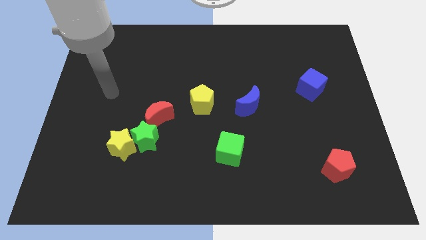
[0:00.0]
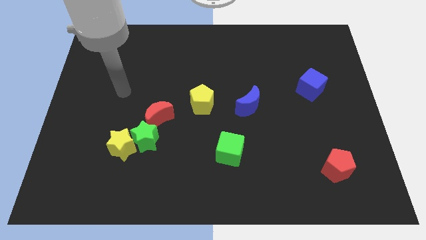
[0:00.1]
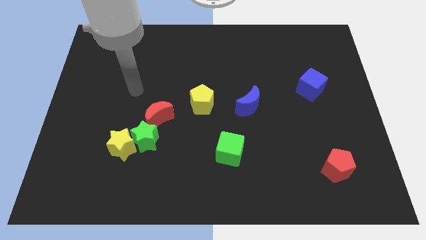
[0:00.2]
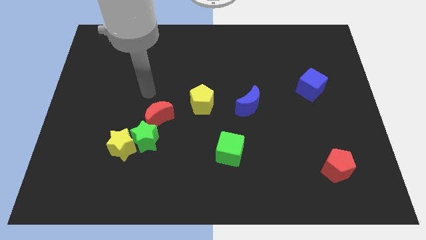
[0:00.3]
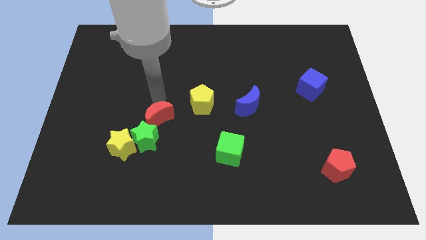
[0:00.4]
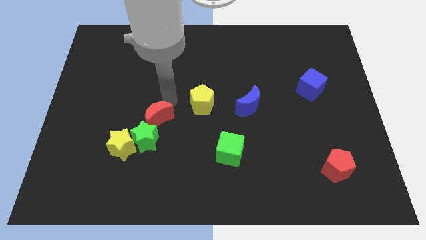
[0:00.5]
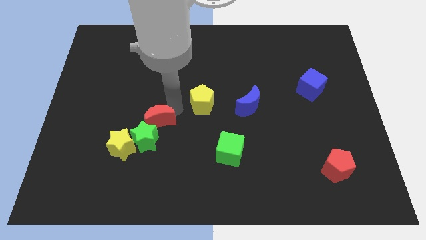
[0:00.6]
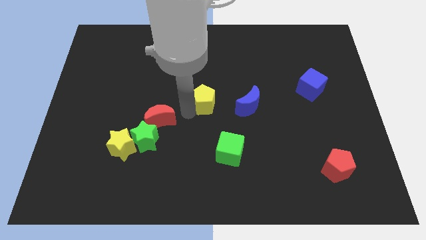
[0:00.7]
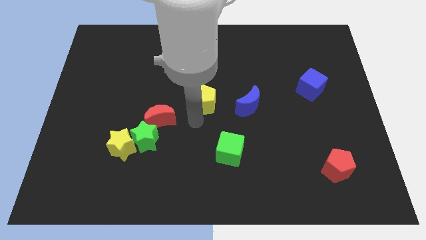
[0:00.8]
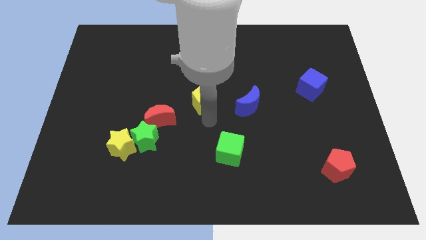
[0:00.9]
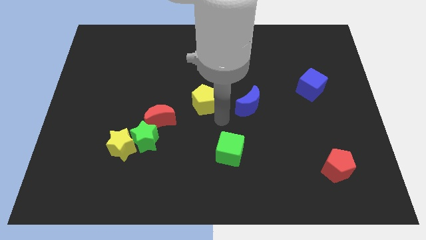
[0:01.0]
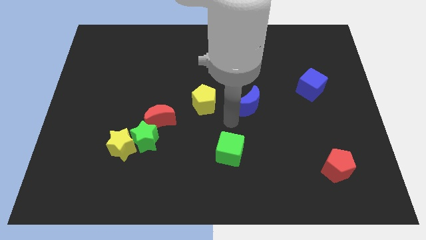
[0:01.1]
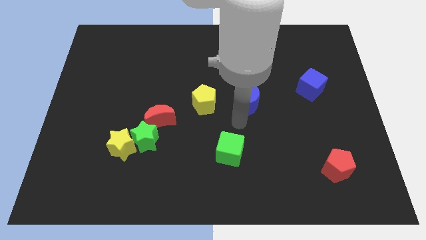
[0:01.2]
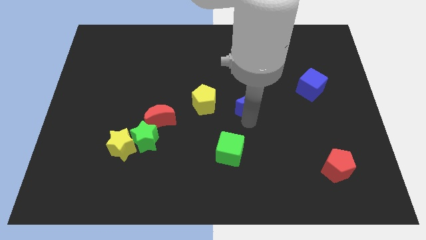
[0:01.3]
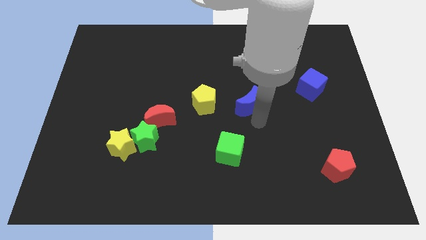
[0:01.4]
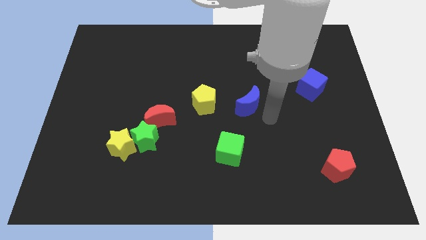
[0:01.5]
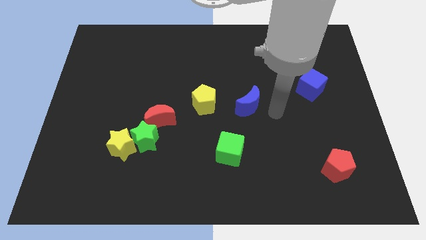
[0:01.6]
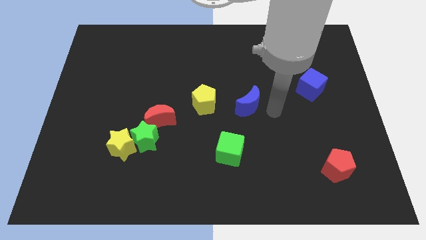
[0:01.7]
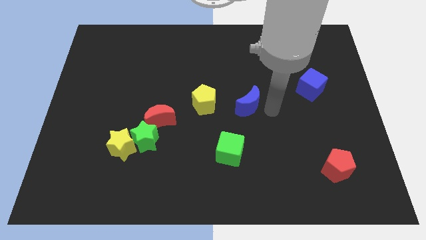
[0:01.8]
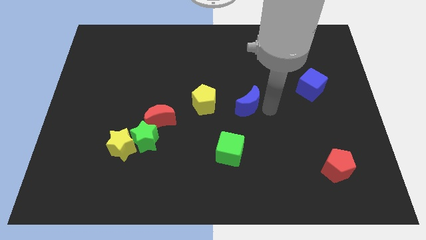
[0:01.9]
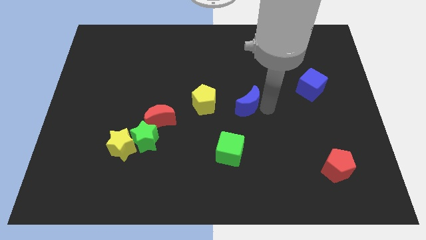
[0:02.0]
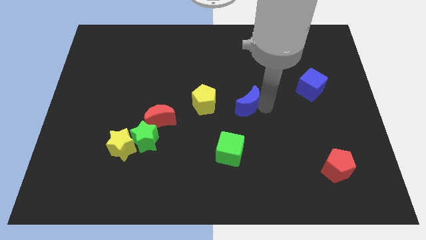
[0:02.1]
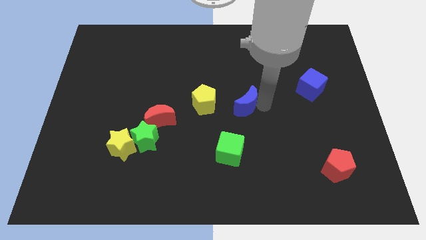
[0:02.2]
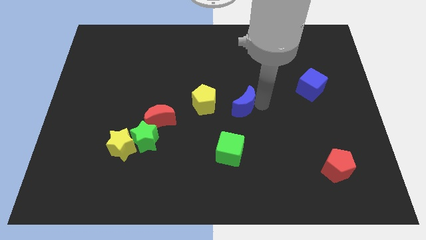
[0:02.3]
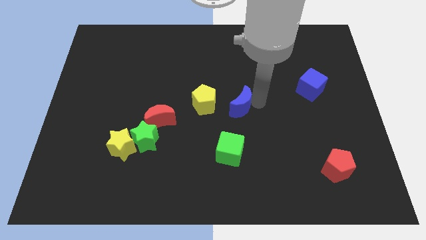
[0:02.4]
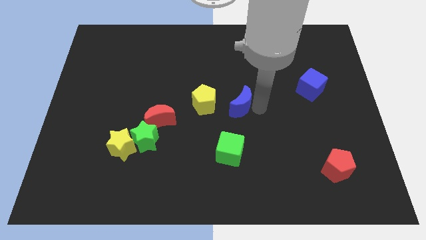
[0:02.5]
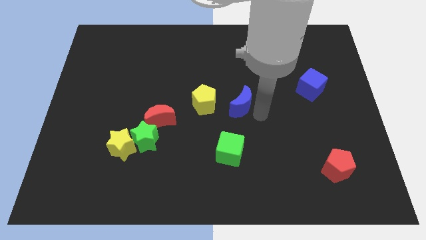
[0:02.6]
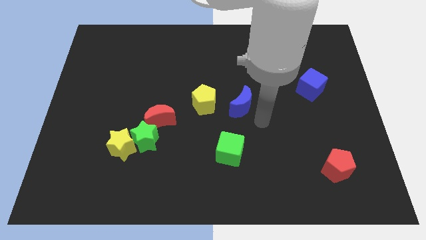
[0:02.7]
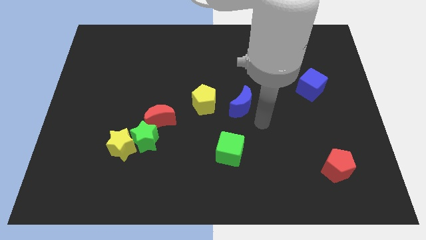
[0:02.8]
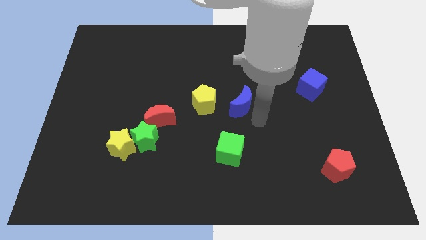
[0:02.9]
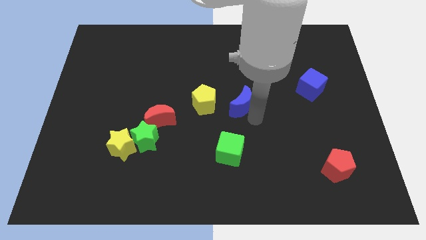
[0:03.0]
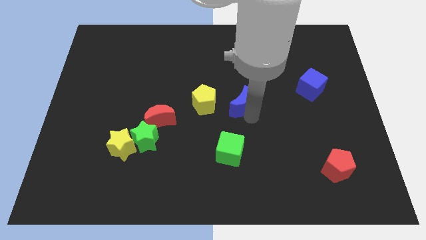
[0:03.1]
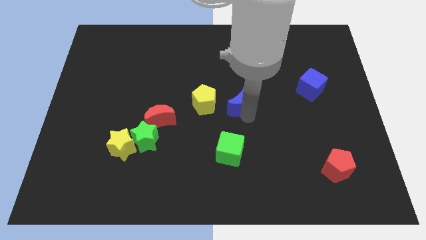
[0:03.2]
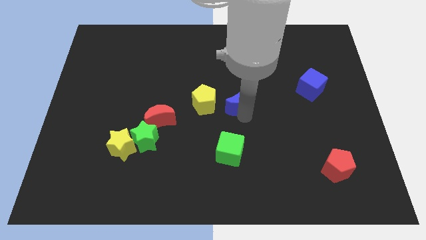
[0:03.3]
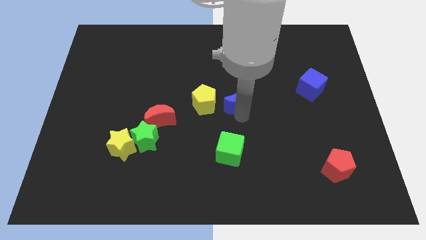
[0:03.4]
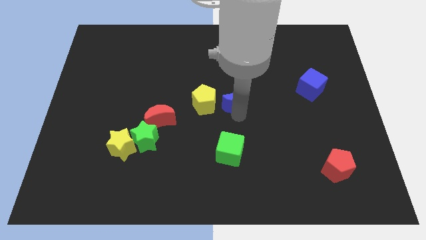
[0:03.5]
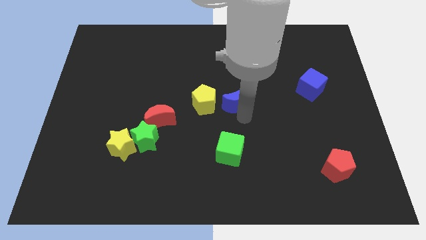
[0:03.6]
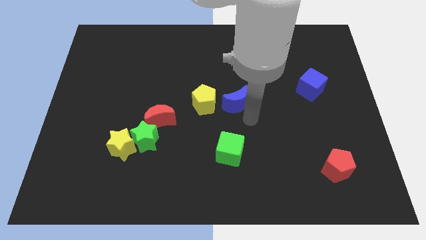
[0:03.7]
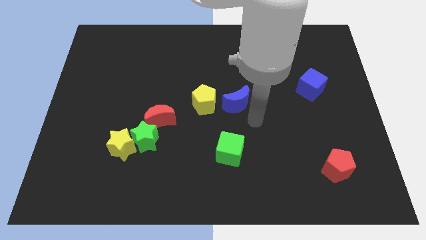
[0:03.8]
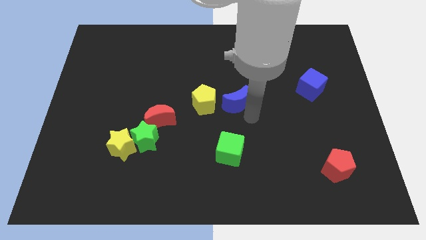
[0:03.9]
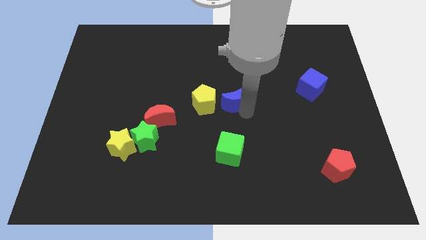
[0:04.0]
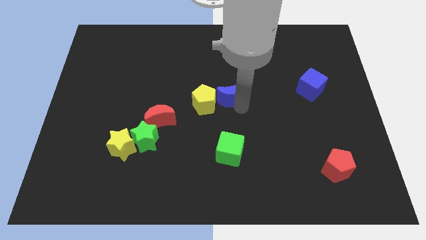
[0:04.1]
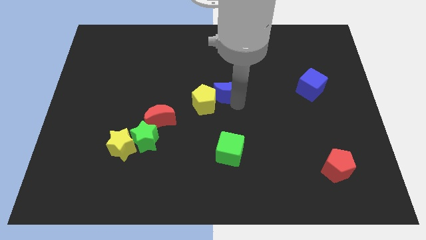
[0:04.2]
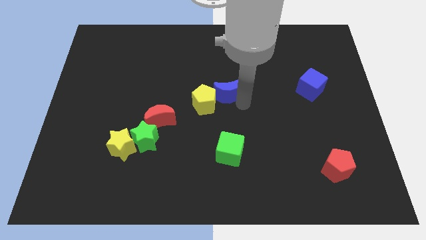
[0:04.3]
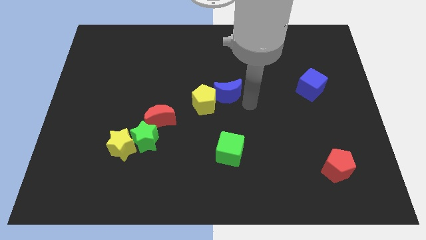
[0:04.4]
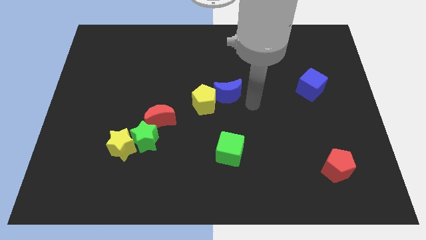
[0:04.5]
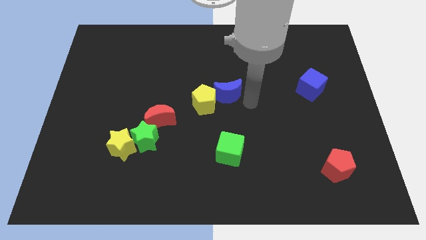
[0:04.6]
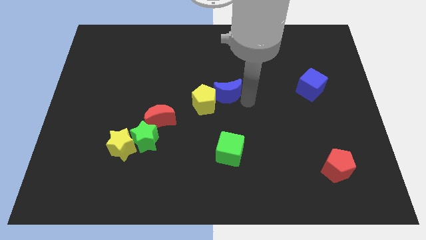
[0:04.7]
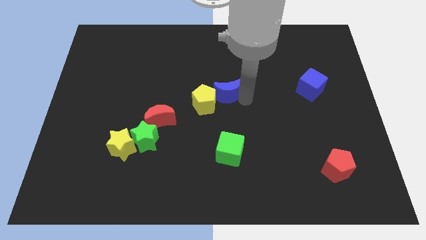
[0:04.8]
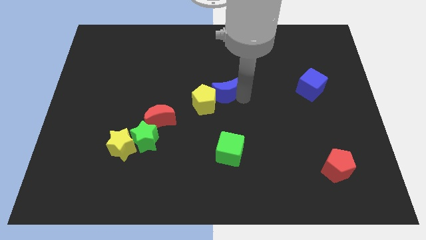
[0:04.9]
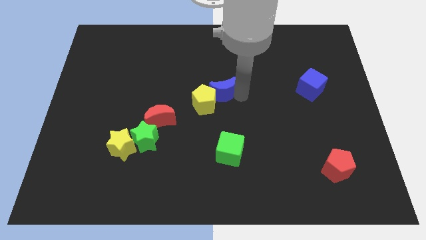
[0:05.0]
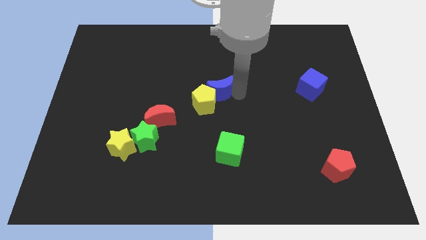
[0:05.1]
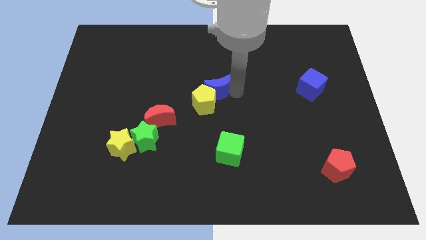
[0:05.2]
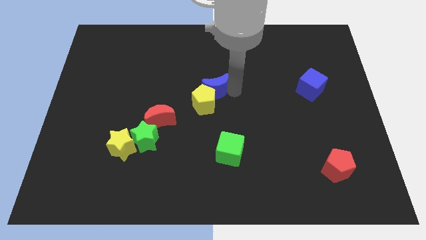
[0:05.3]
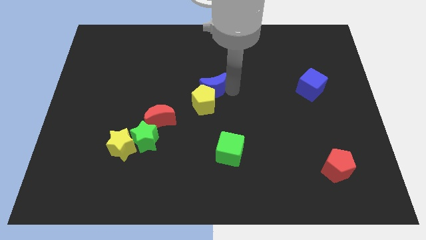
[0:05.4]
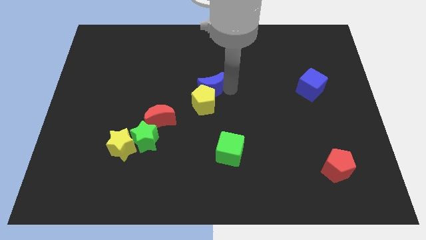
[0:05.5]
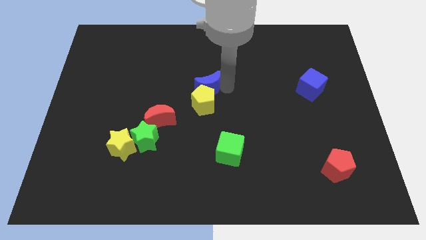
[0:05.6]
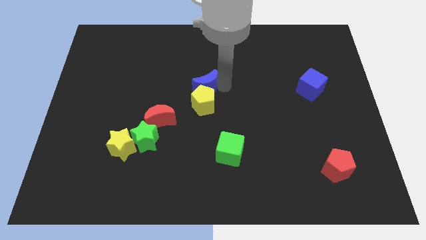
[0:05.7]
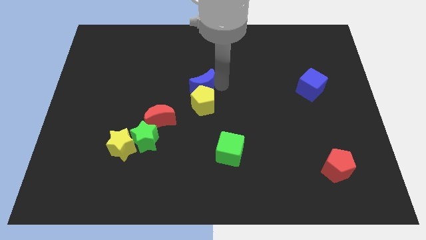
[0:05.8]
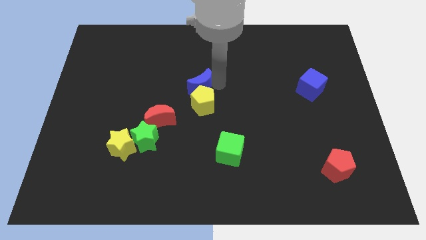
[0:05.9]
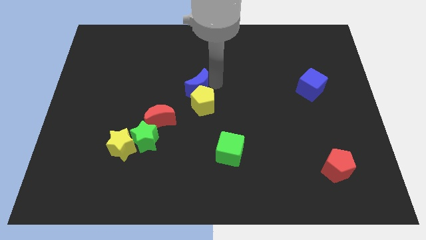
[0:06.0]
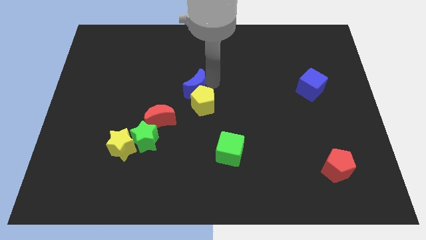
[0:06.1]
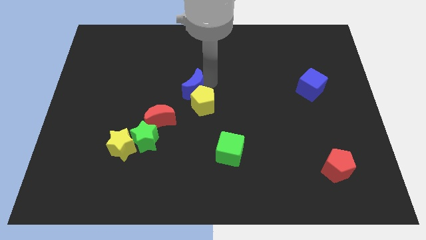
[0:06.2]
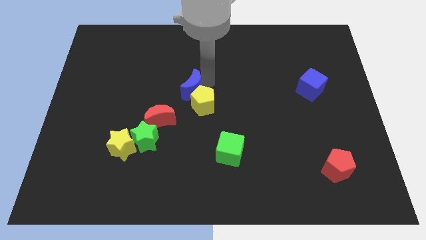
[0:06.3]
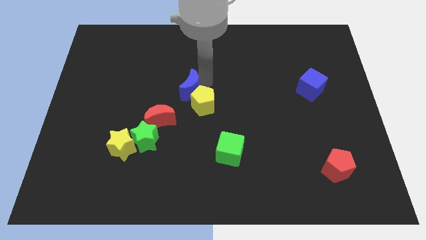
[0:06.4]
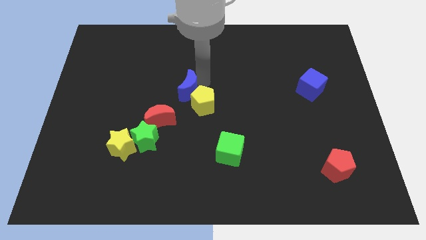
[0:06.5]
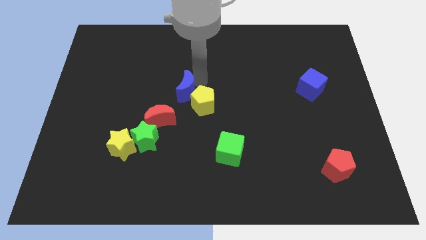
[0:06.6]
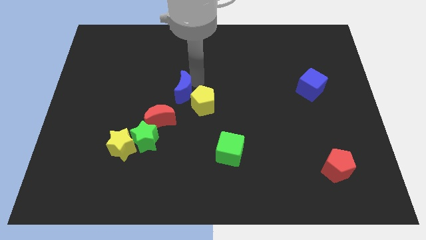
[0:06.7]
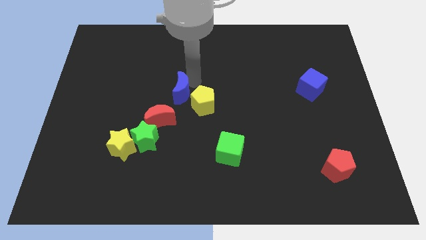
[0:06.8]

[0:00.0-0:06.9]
move the blue moon to the top side of the red moon

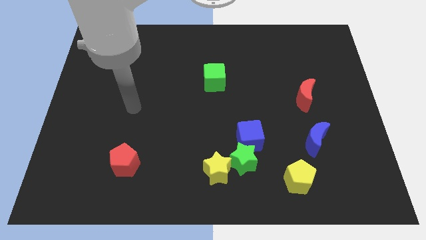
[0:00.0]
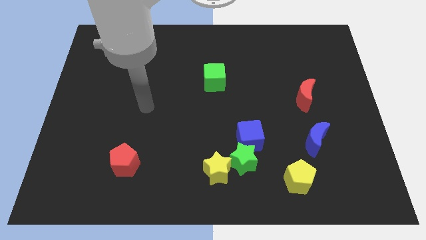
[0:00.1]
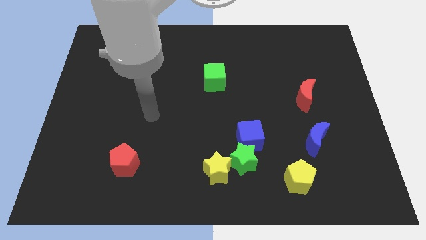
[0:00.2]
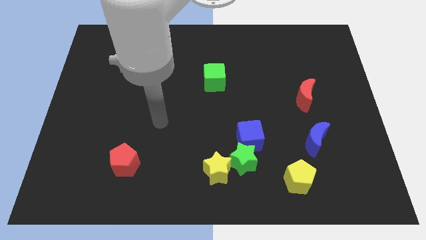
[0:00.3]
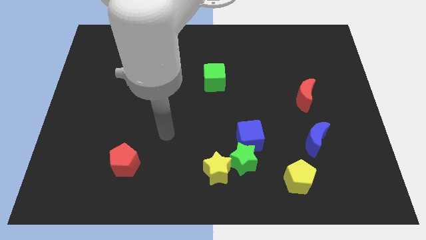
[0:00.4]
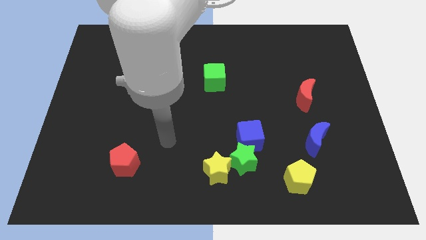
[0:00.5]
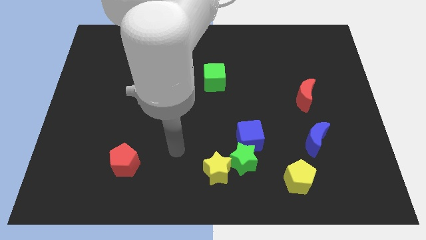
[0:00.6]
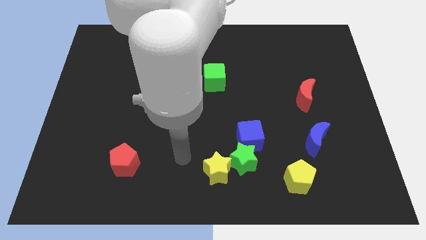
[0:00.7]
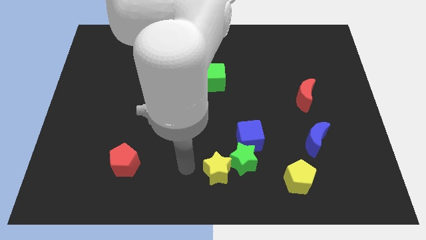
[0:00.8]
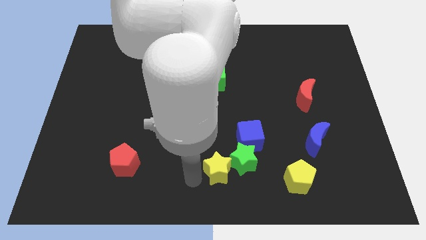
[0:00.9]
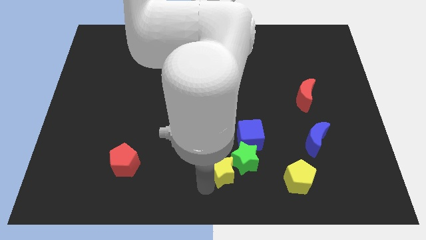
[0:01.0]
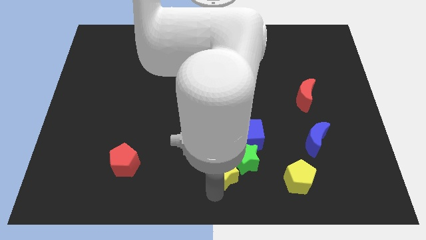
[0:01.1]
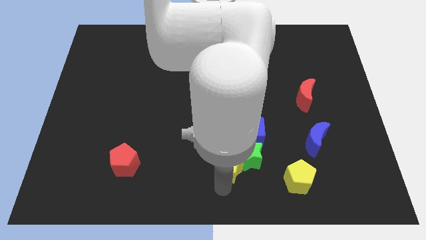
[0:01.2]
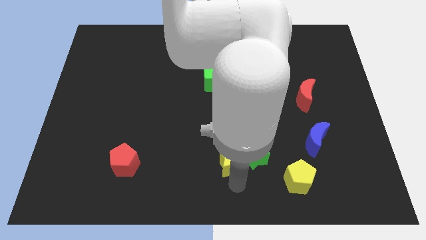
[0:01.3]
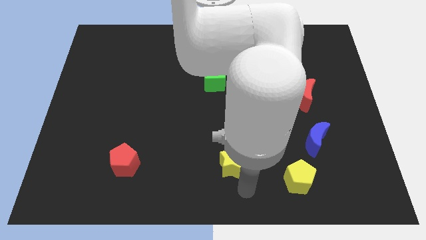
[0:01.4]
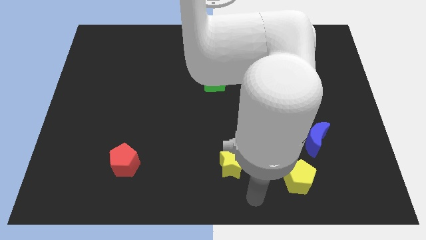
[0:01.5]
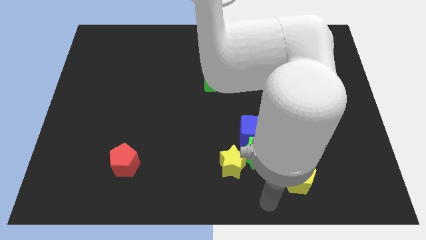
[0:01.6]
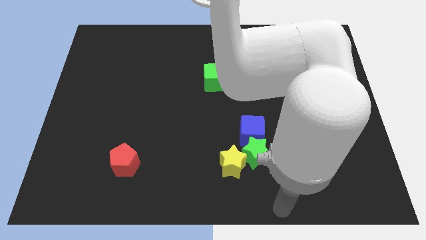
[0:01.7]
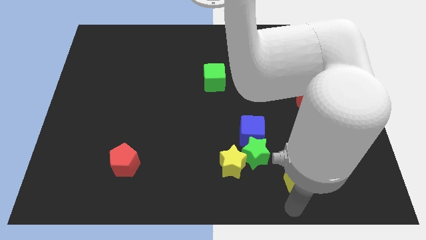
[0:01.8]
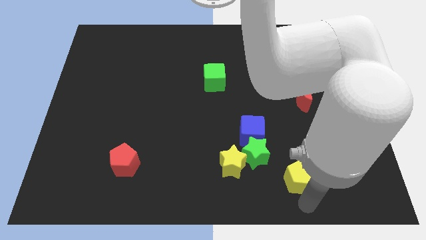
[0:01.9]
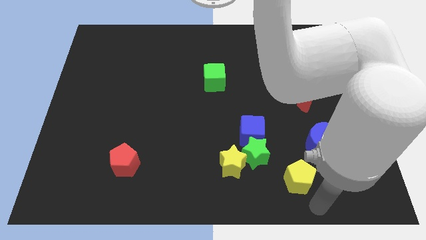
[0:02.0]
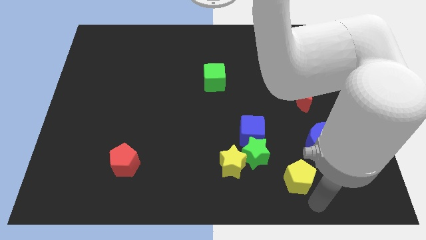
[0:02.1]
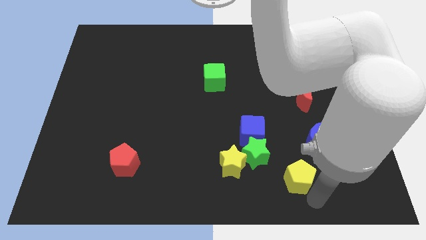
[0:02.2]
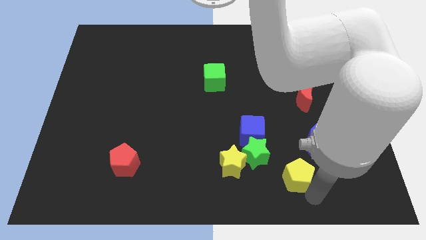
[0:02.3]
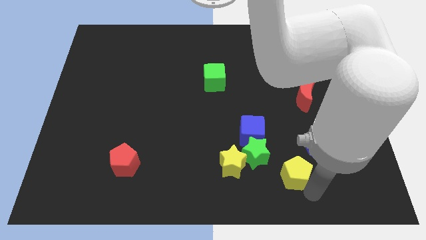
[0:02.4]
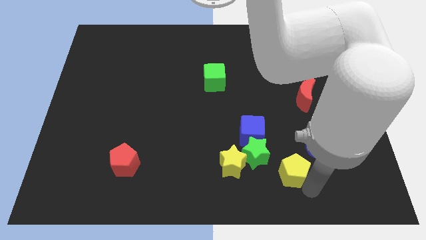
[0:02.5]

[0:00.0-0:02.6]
move the yellow pentagon to the bottom right of the blue cube
